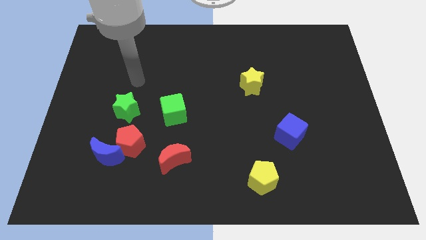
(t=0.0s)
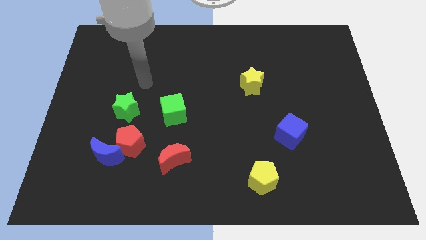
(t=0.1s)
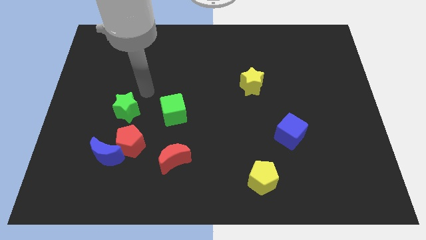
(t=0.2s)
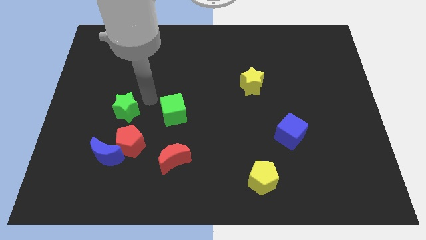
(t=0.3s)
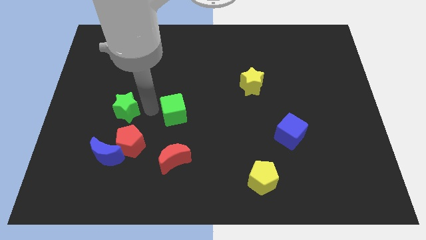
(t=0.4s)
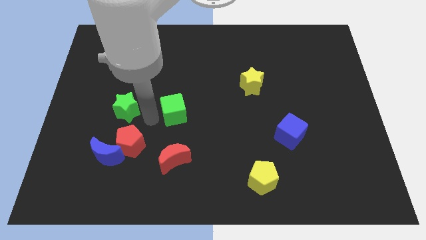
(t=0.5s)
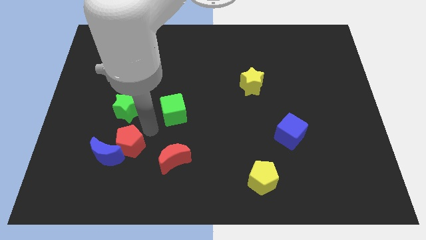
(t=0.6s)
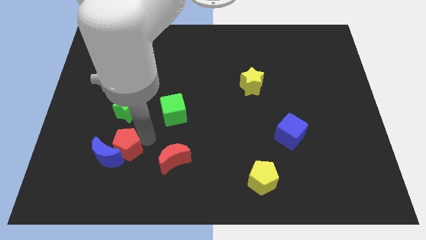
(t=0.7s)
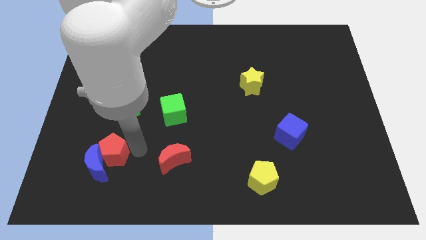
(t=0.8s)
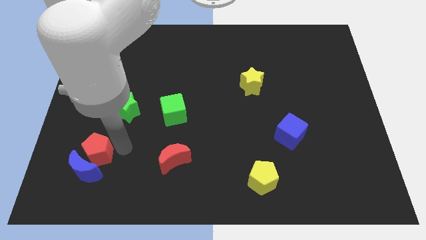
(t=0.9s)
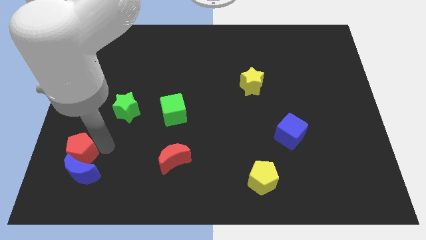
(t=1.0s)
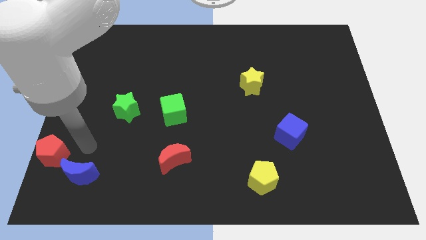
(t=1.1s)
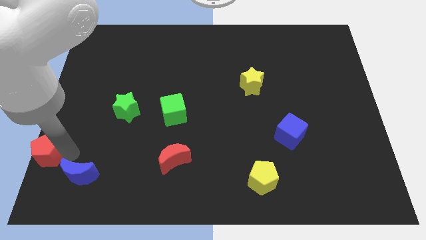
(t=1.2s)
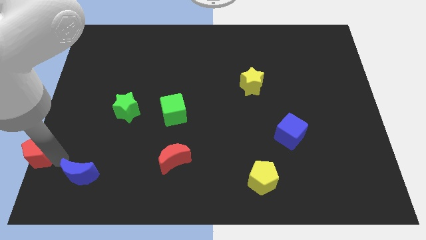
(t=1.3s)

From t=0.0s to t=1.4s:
separate the blue moon from the red pentagon

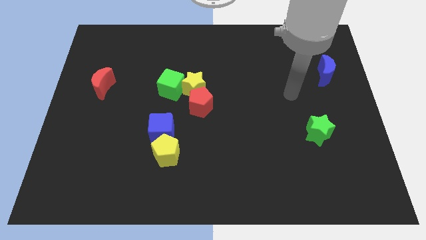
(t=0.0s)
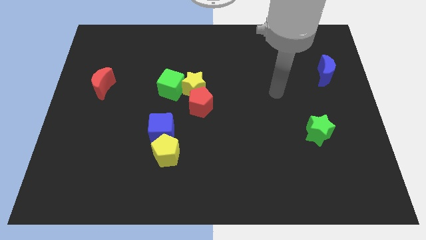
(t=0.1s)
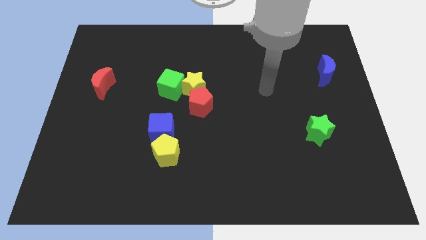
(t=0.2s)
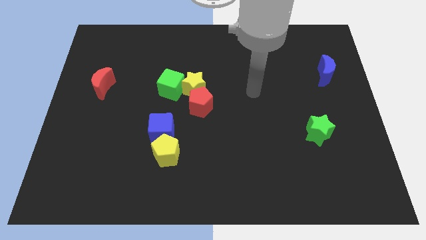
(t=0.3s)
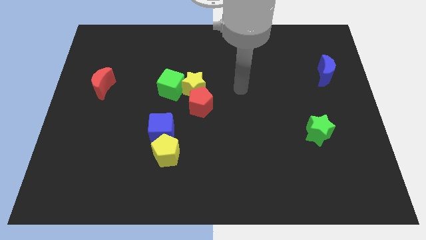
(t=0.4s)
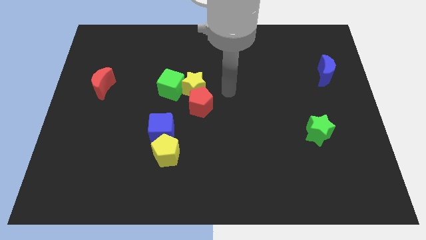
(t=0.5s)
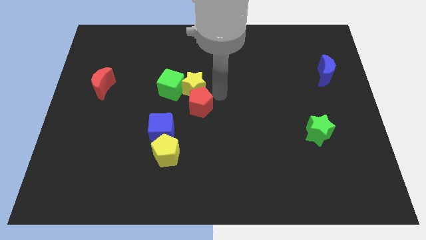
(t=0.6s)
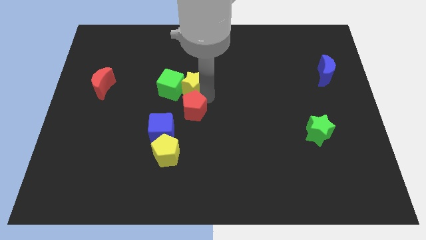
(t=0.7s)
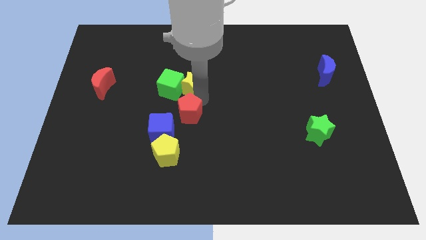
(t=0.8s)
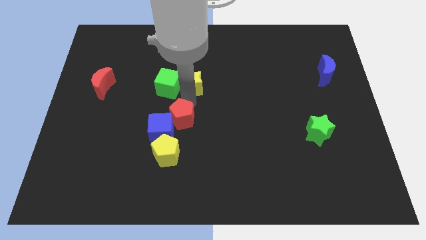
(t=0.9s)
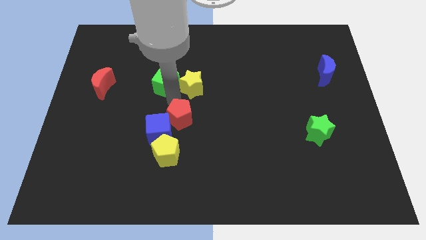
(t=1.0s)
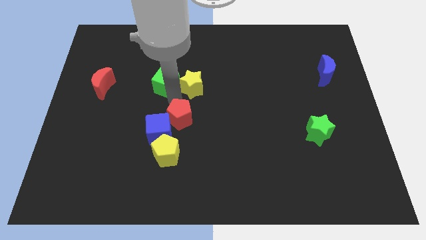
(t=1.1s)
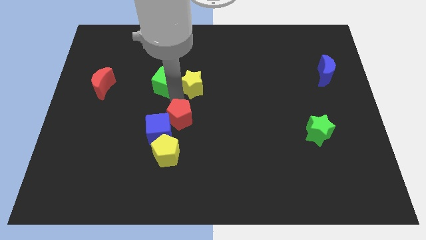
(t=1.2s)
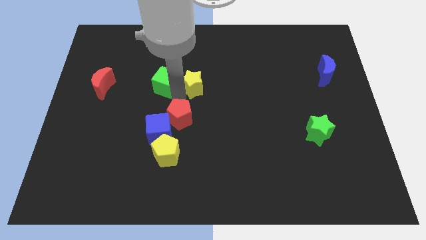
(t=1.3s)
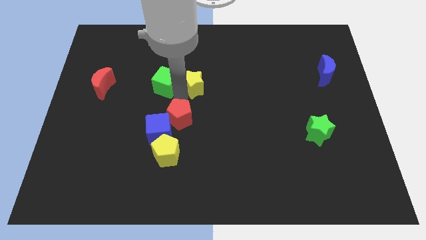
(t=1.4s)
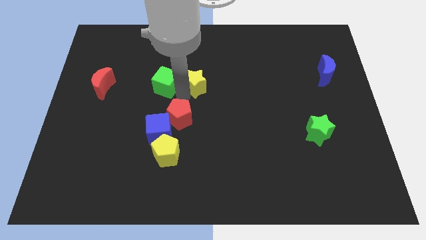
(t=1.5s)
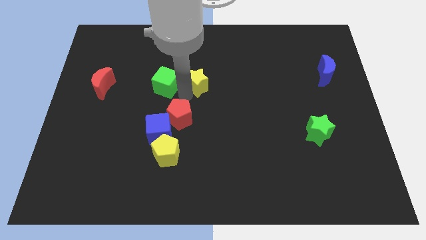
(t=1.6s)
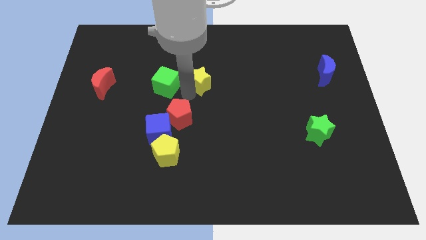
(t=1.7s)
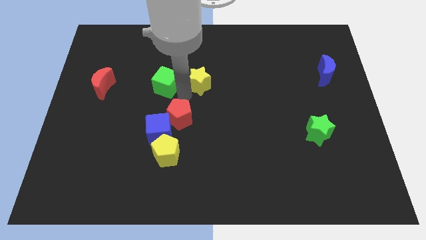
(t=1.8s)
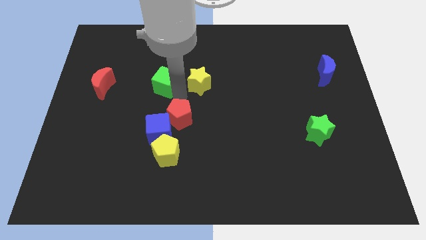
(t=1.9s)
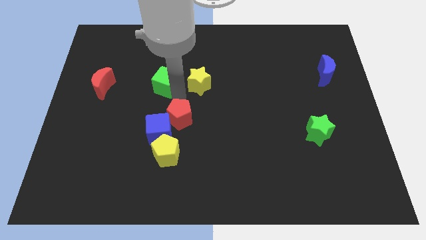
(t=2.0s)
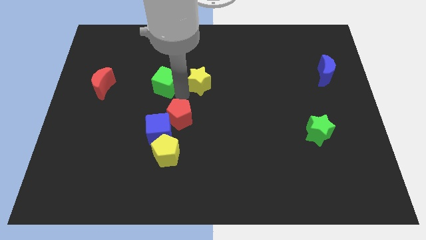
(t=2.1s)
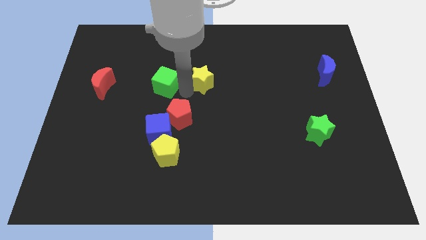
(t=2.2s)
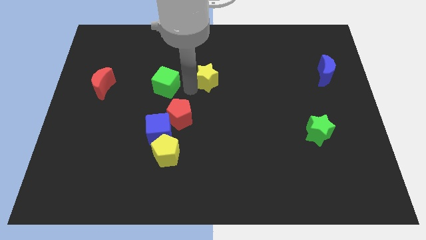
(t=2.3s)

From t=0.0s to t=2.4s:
separate the yellow star from the green cube and red pentagon

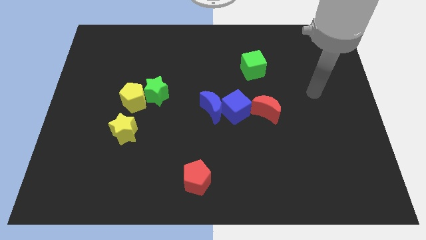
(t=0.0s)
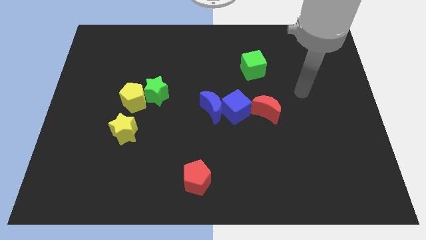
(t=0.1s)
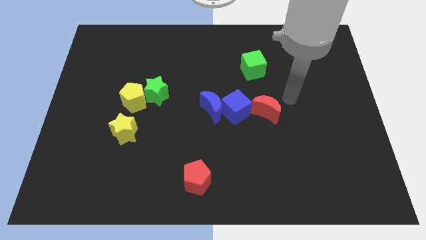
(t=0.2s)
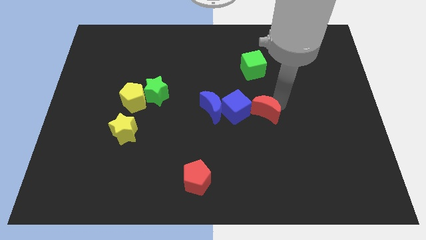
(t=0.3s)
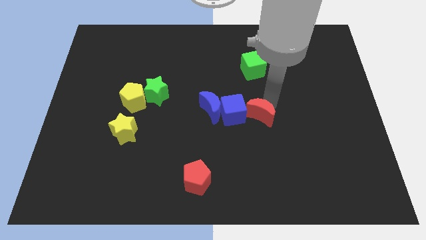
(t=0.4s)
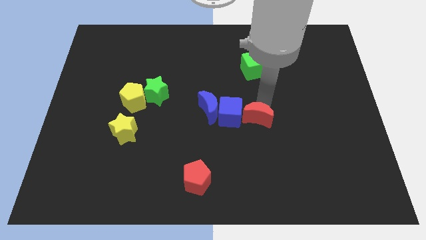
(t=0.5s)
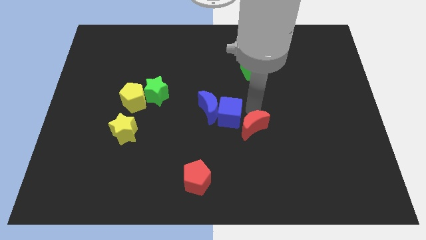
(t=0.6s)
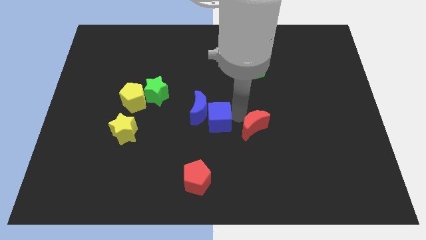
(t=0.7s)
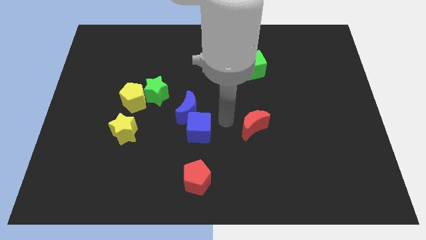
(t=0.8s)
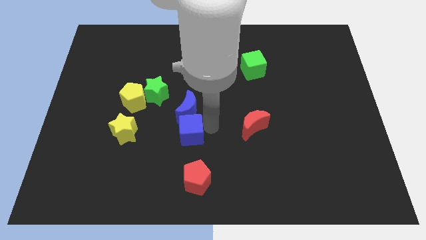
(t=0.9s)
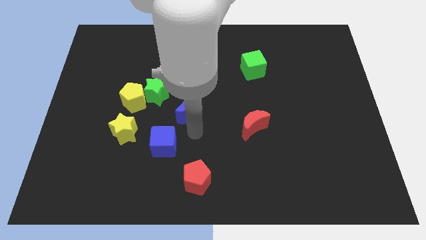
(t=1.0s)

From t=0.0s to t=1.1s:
pull the blue moon apart from the blue cube

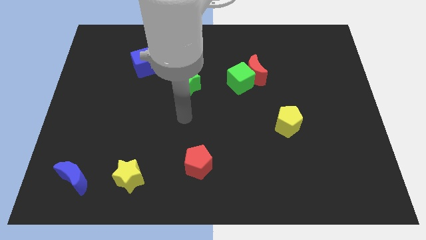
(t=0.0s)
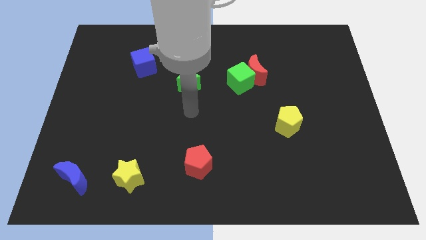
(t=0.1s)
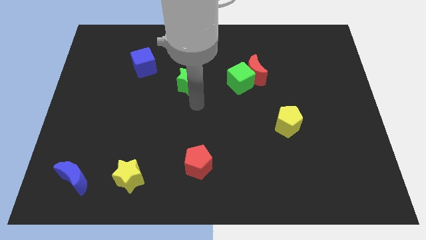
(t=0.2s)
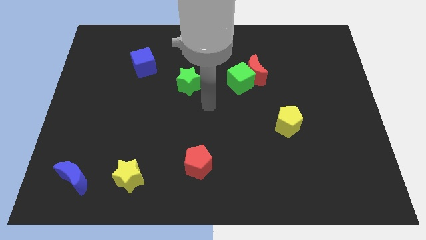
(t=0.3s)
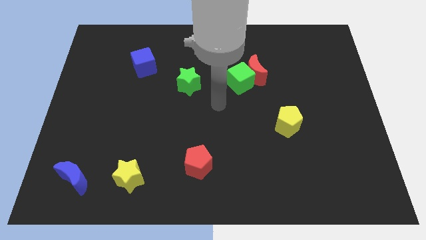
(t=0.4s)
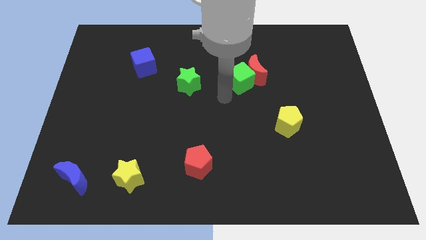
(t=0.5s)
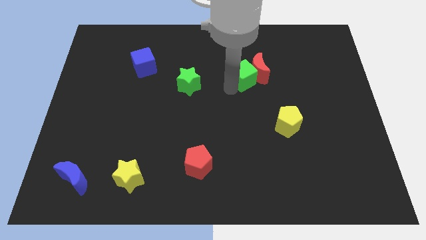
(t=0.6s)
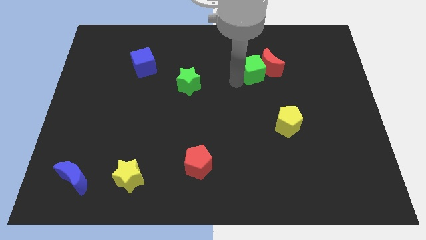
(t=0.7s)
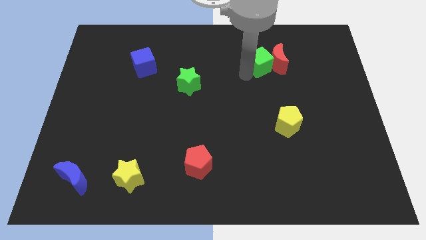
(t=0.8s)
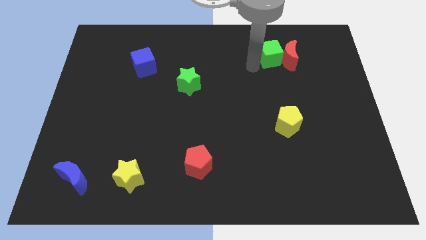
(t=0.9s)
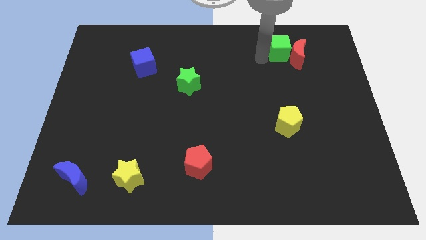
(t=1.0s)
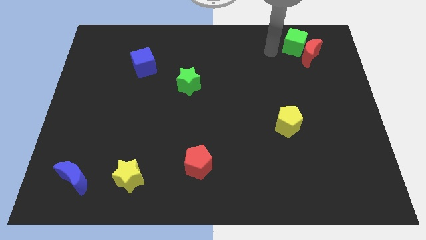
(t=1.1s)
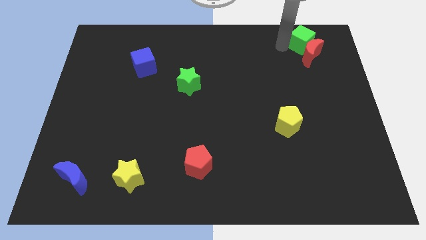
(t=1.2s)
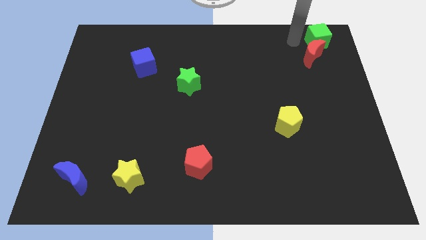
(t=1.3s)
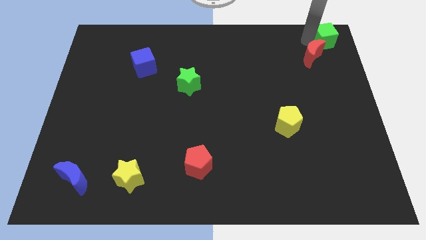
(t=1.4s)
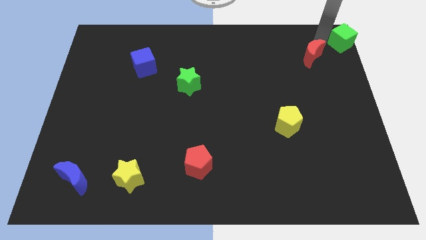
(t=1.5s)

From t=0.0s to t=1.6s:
separate the red moon from the green cube

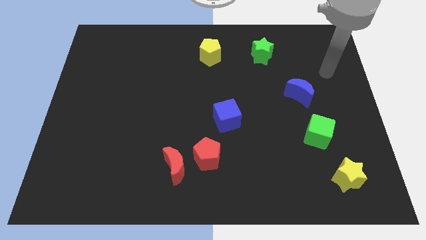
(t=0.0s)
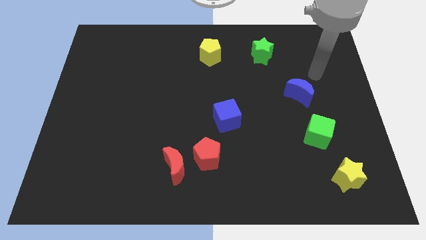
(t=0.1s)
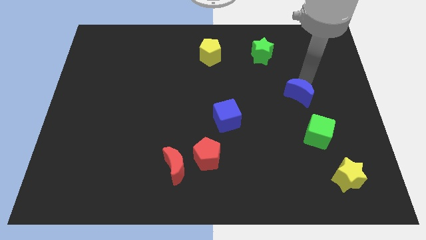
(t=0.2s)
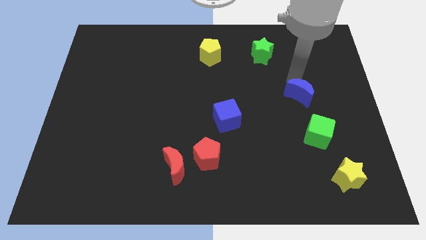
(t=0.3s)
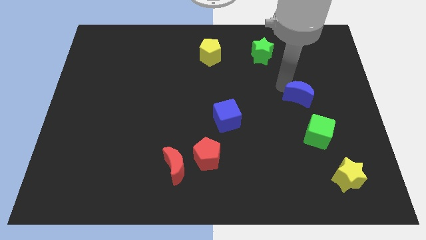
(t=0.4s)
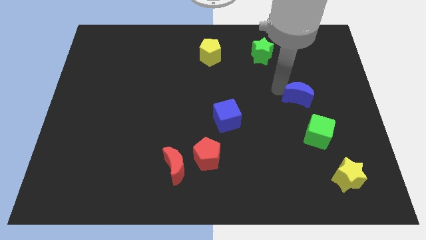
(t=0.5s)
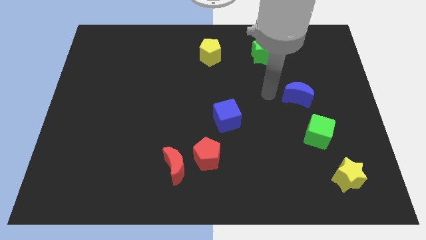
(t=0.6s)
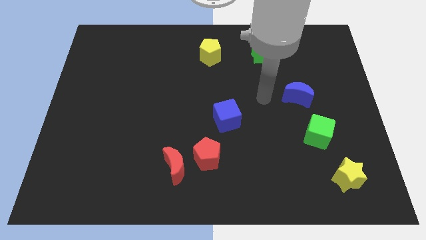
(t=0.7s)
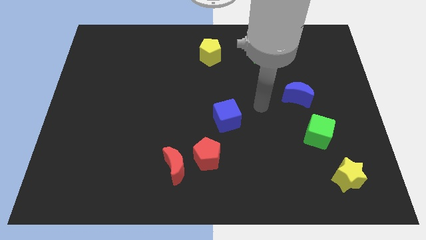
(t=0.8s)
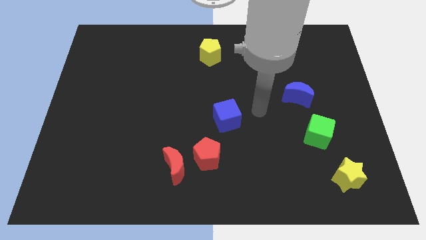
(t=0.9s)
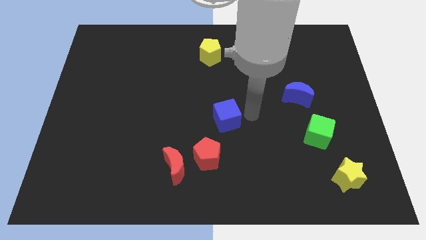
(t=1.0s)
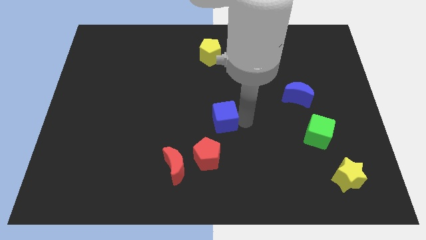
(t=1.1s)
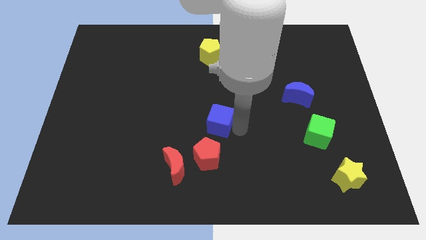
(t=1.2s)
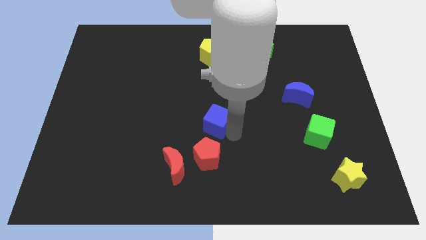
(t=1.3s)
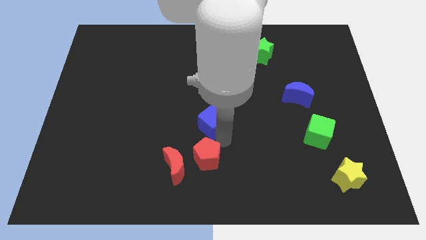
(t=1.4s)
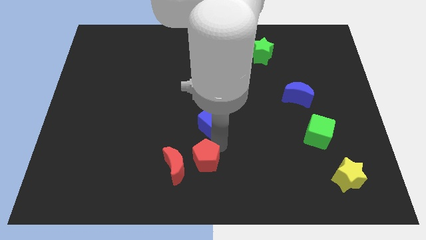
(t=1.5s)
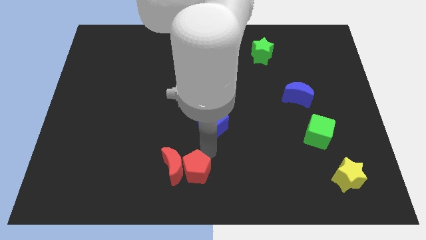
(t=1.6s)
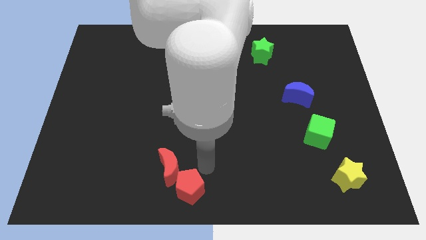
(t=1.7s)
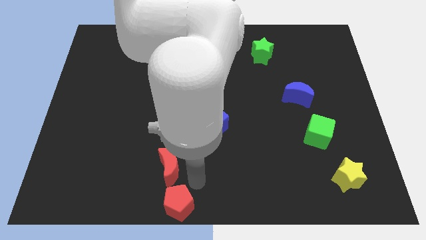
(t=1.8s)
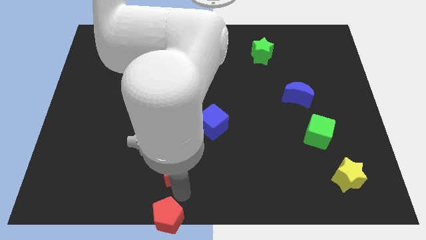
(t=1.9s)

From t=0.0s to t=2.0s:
move the red moon away from the red pentagon

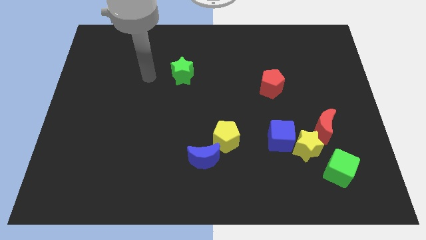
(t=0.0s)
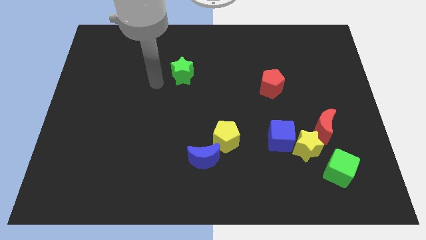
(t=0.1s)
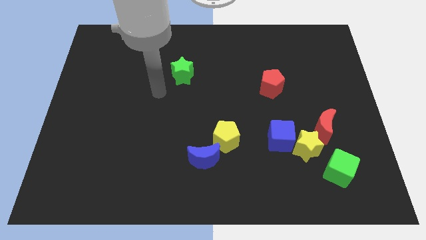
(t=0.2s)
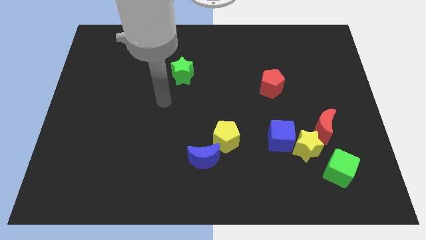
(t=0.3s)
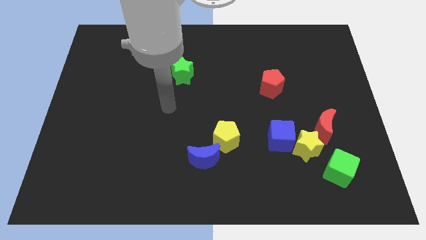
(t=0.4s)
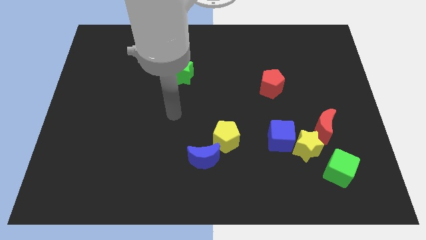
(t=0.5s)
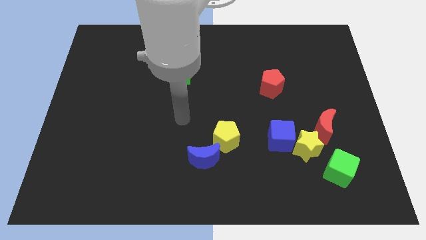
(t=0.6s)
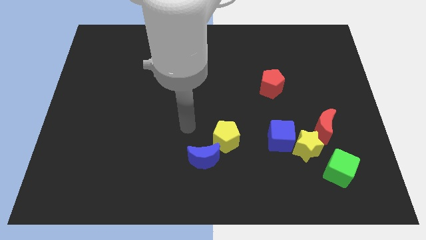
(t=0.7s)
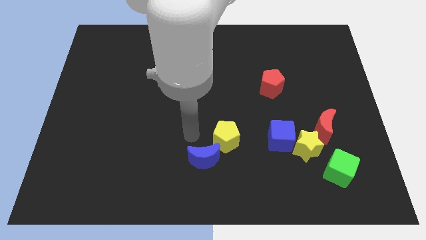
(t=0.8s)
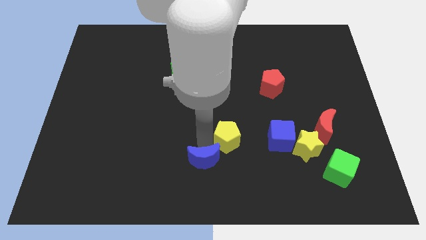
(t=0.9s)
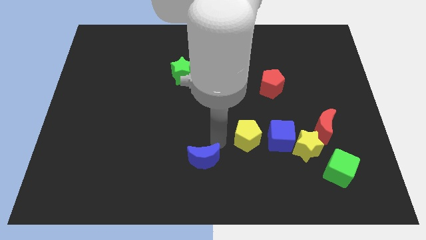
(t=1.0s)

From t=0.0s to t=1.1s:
move the blue moon away from the yellow pentagon
